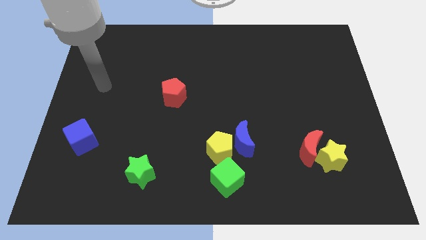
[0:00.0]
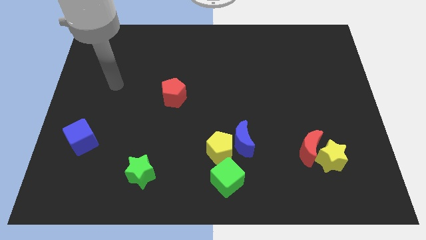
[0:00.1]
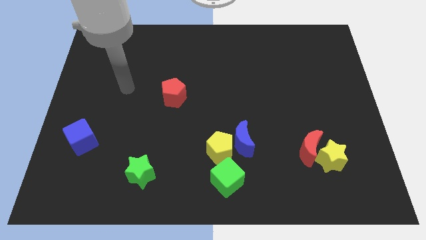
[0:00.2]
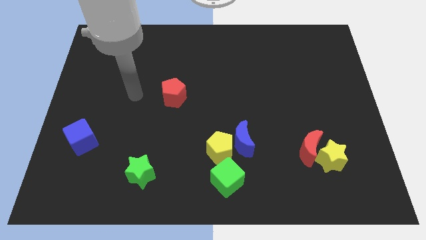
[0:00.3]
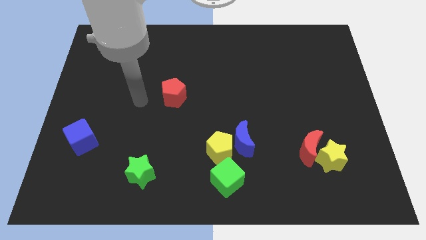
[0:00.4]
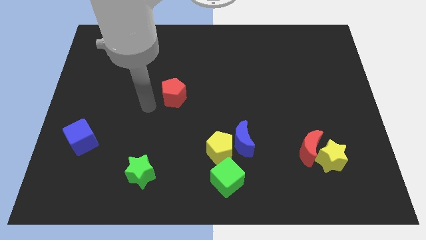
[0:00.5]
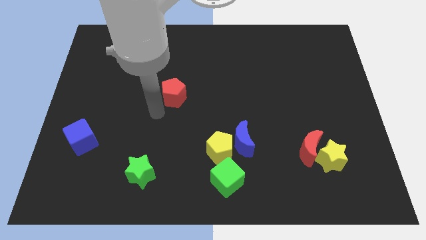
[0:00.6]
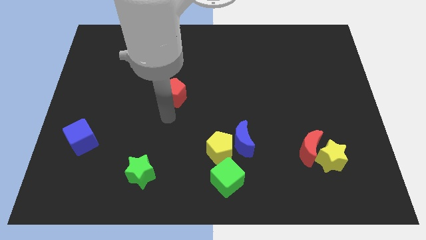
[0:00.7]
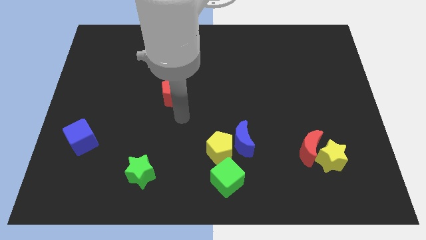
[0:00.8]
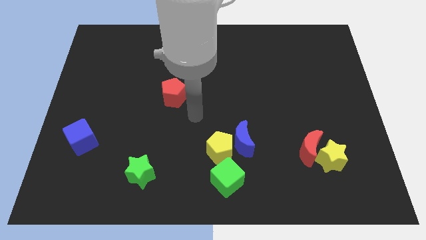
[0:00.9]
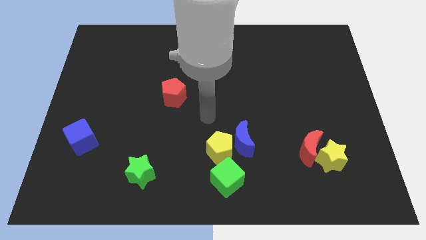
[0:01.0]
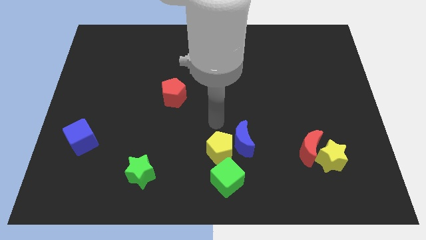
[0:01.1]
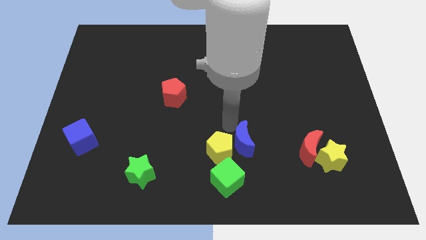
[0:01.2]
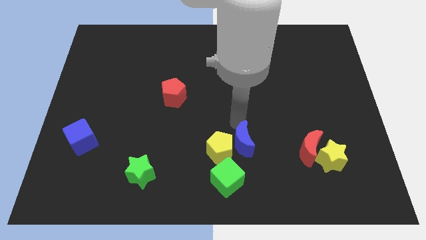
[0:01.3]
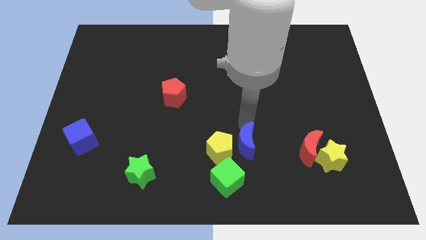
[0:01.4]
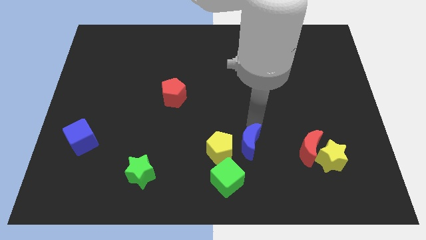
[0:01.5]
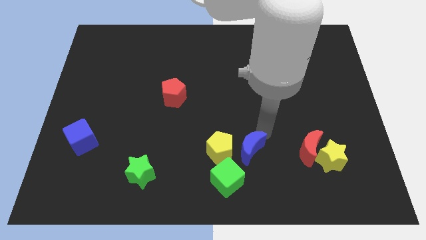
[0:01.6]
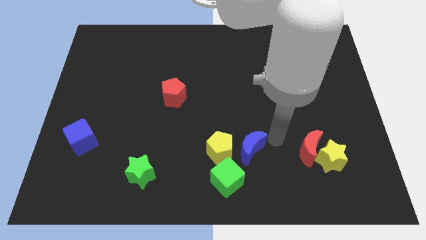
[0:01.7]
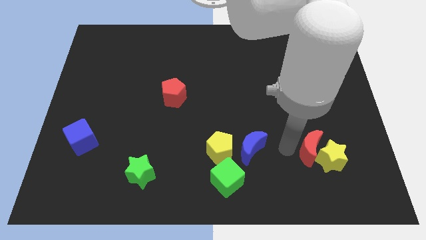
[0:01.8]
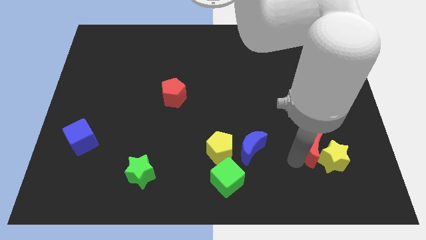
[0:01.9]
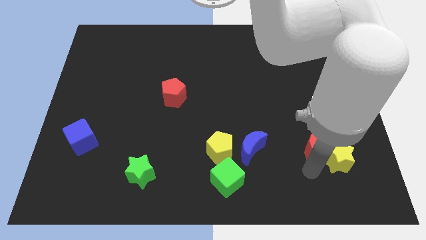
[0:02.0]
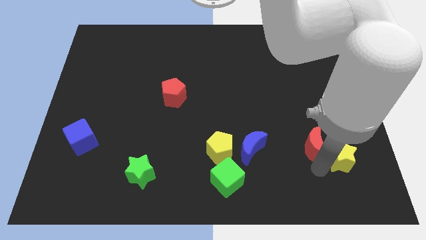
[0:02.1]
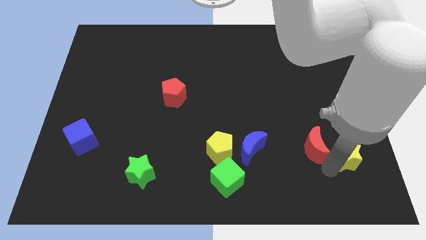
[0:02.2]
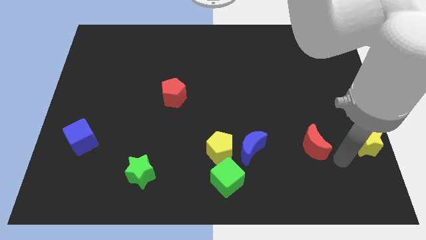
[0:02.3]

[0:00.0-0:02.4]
pull the red moon apart from the yellow star

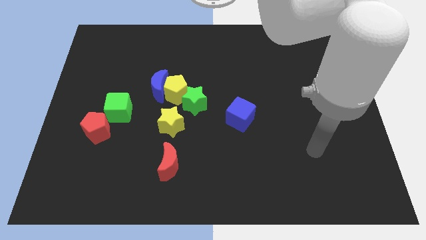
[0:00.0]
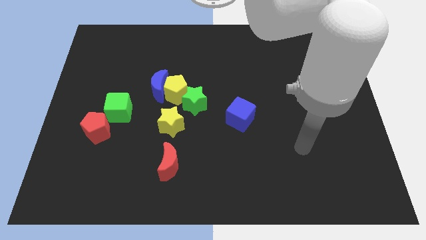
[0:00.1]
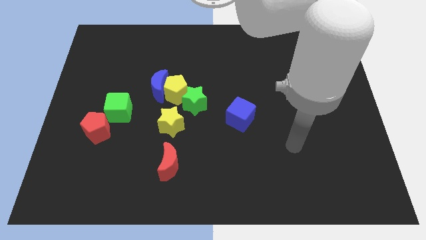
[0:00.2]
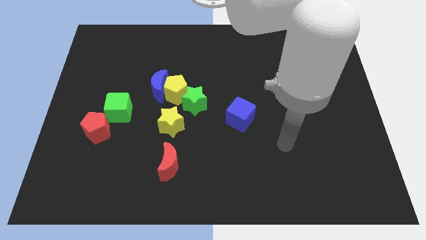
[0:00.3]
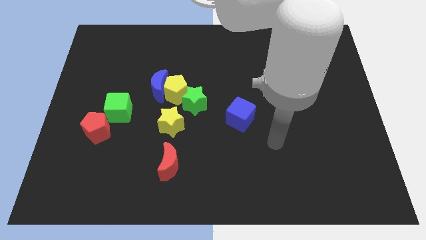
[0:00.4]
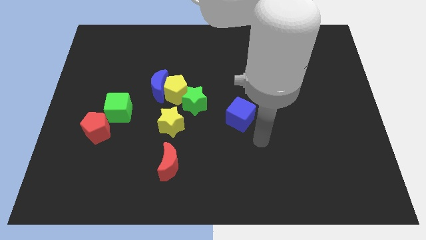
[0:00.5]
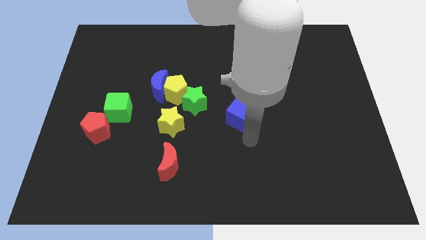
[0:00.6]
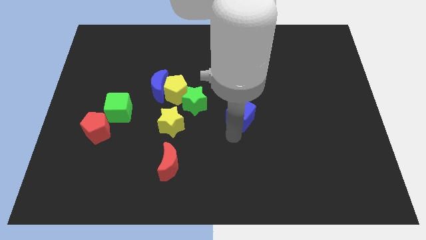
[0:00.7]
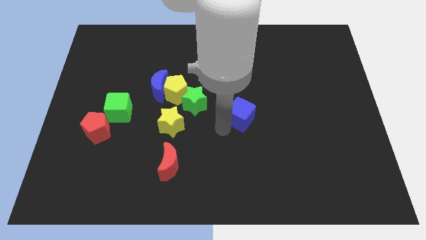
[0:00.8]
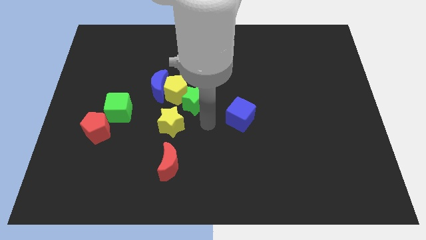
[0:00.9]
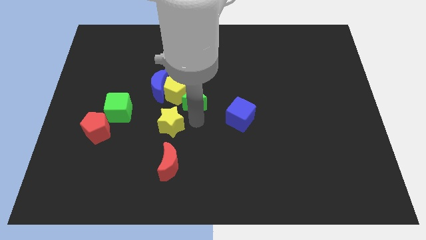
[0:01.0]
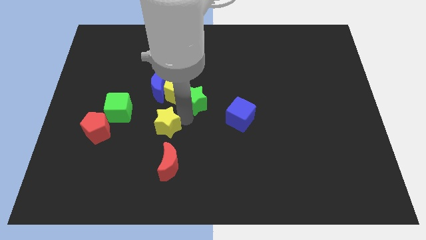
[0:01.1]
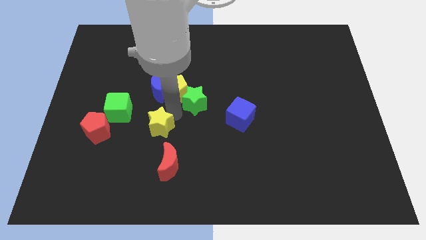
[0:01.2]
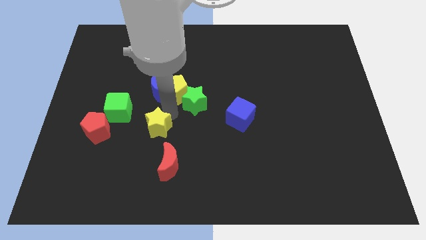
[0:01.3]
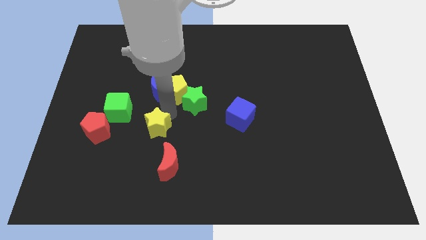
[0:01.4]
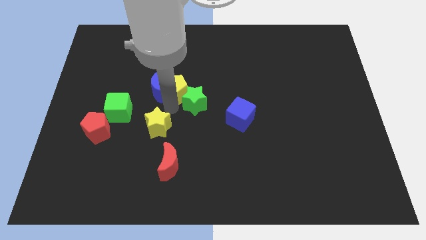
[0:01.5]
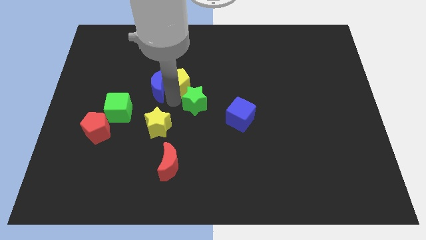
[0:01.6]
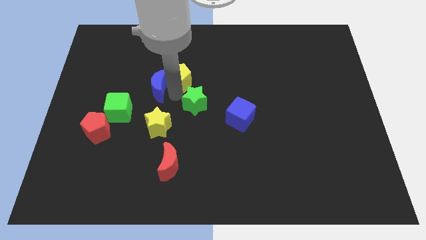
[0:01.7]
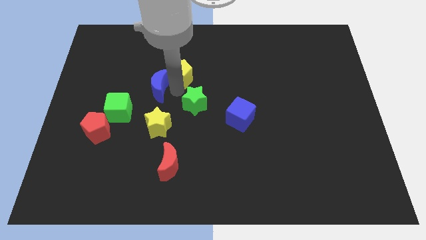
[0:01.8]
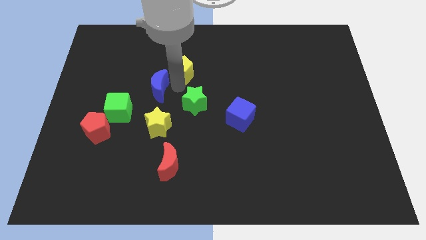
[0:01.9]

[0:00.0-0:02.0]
move the yellow pentagon away from the blue moon, green star, and yellow star

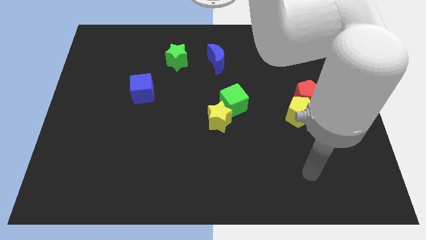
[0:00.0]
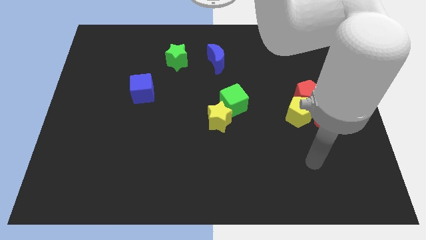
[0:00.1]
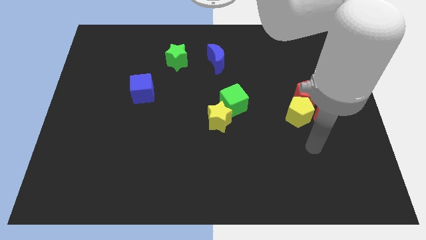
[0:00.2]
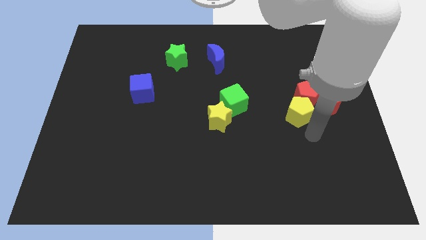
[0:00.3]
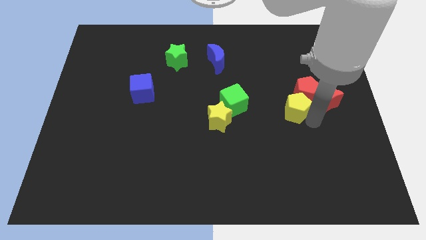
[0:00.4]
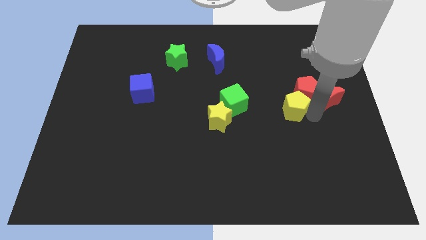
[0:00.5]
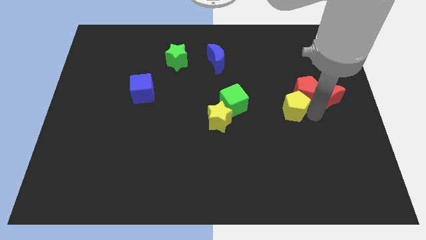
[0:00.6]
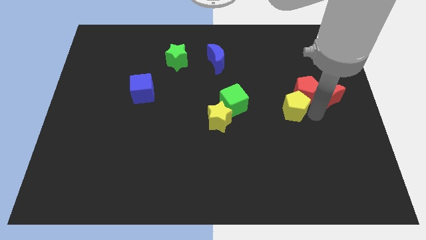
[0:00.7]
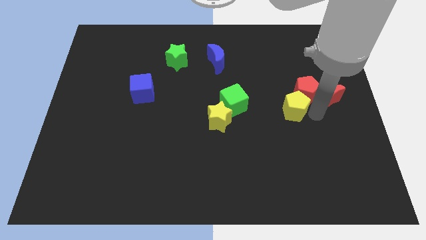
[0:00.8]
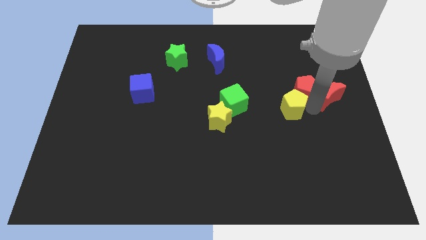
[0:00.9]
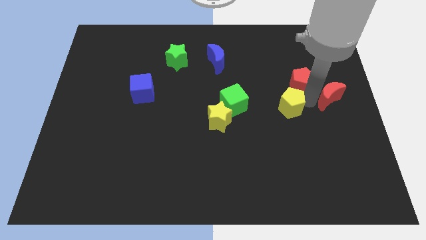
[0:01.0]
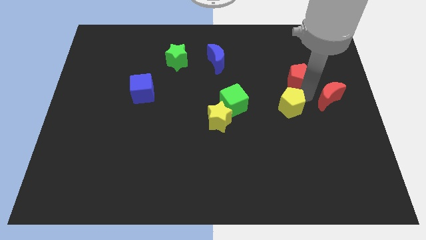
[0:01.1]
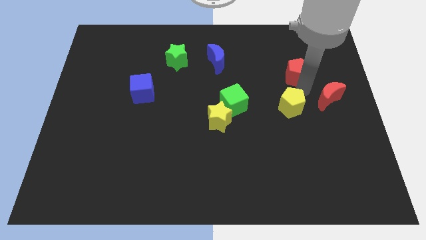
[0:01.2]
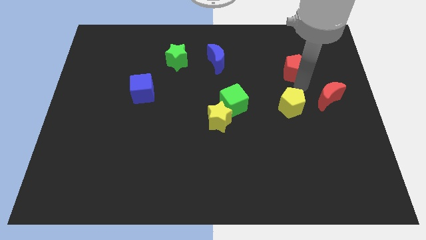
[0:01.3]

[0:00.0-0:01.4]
pull the red pentagon apart from the yellow pentagon and red moon

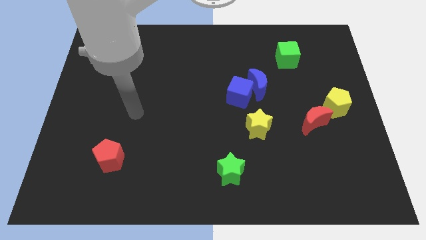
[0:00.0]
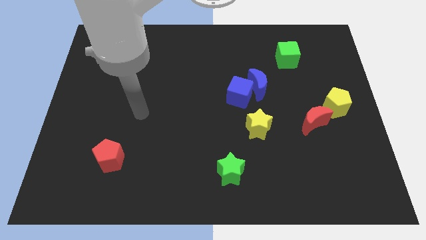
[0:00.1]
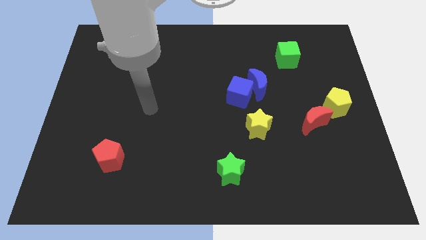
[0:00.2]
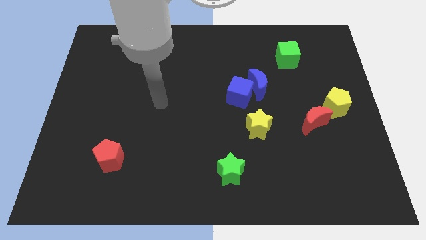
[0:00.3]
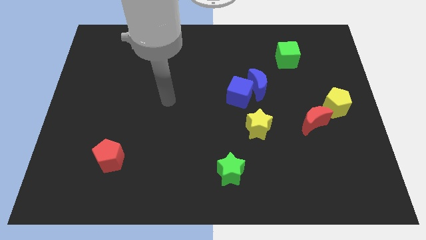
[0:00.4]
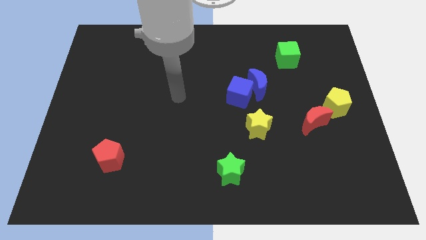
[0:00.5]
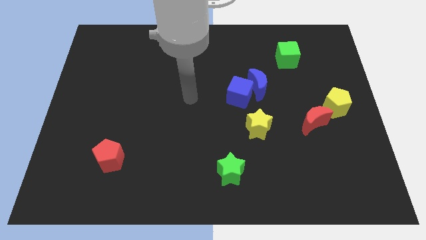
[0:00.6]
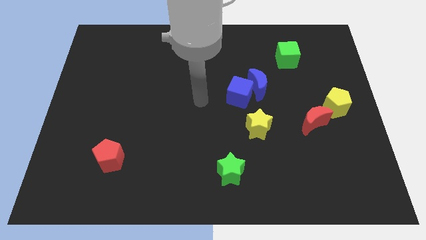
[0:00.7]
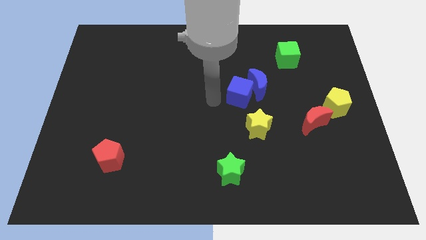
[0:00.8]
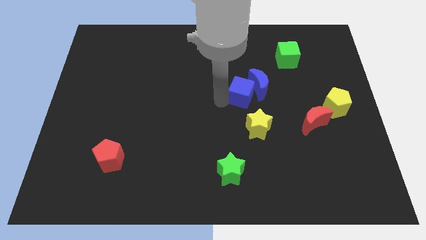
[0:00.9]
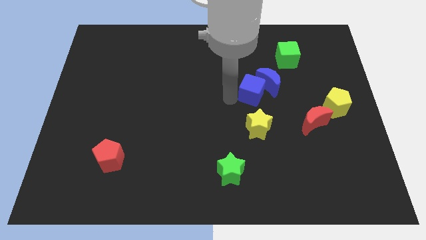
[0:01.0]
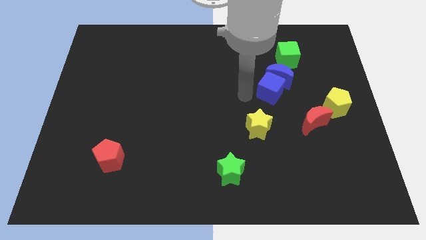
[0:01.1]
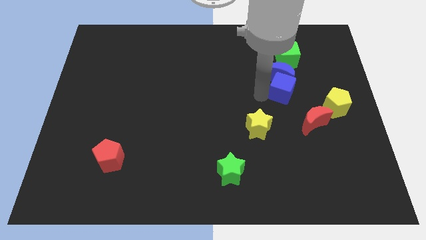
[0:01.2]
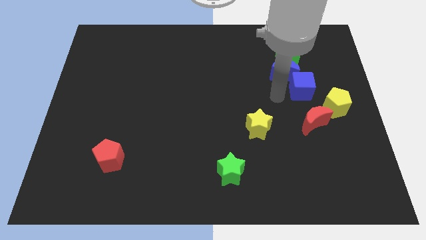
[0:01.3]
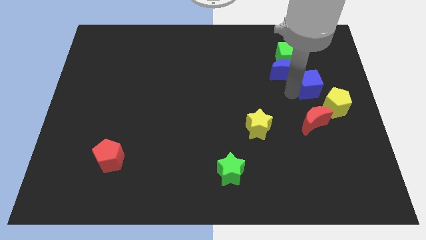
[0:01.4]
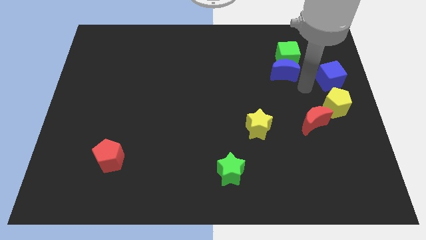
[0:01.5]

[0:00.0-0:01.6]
separate the blue moon from the blue cube

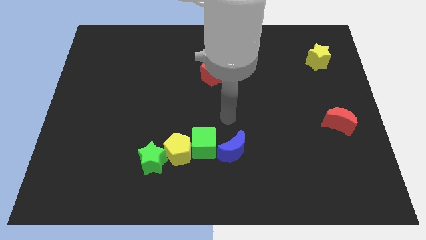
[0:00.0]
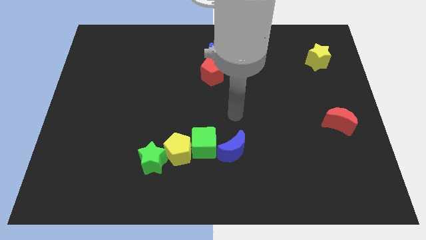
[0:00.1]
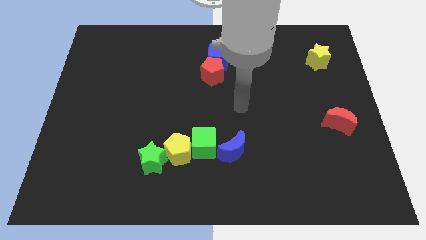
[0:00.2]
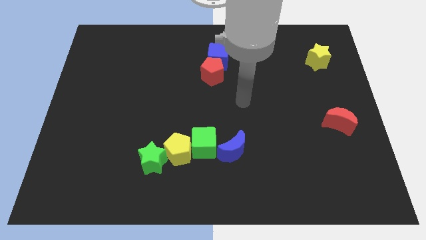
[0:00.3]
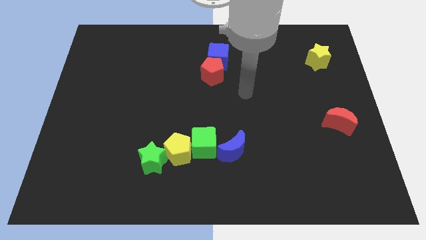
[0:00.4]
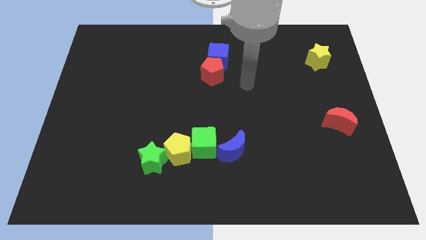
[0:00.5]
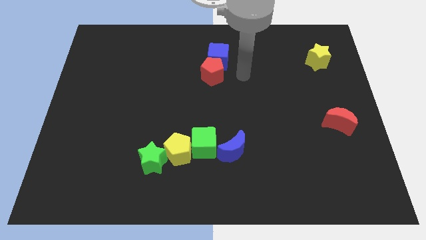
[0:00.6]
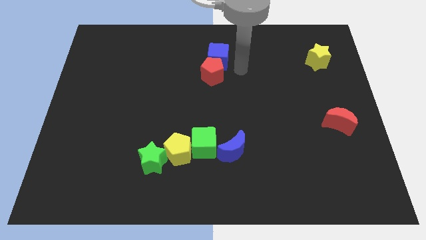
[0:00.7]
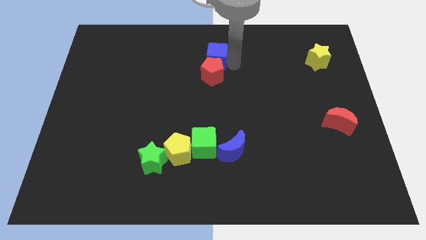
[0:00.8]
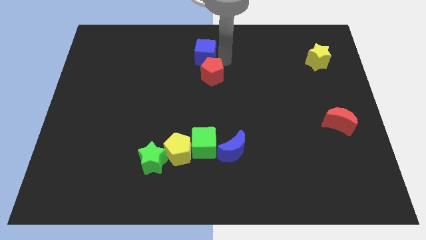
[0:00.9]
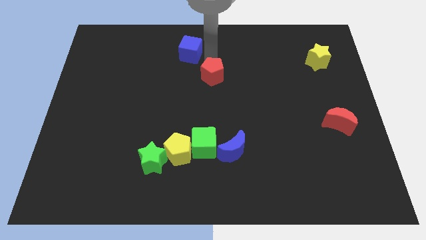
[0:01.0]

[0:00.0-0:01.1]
pull the red pentagon apart from the blue cube

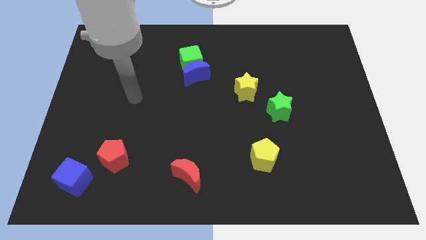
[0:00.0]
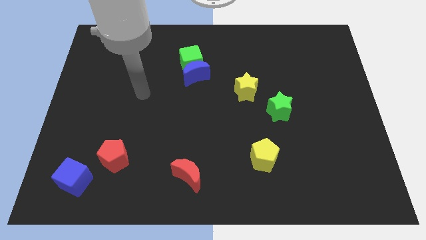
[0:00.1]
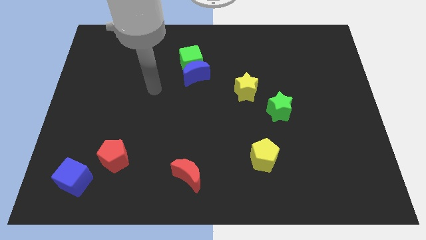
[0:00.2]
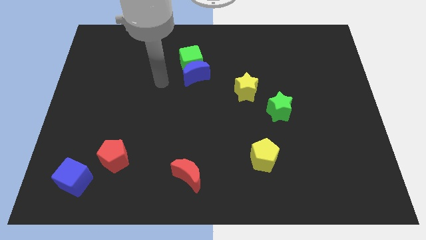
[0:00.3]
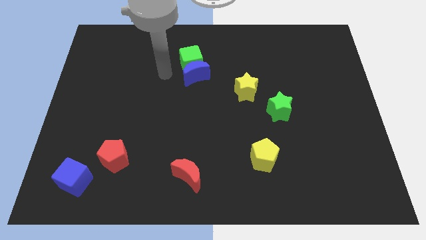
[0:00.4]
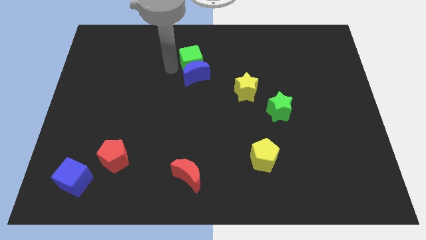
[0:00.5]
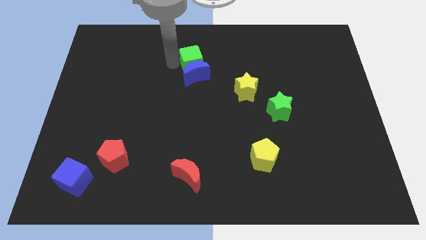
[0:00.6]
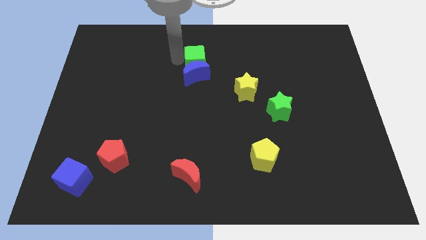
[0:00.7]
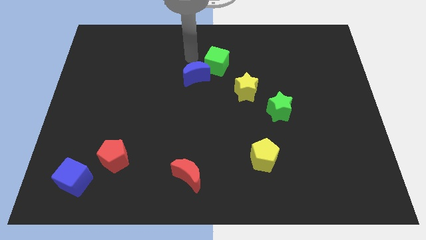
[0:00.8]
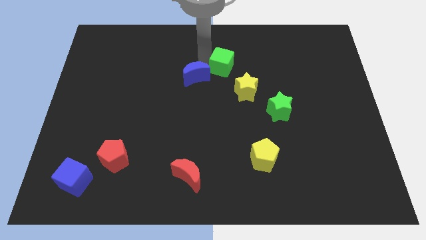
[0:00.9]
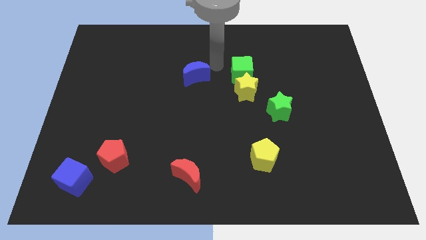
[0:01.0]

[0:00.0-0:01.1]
pull the blue moon apart from the green cube
